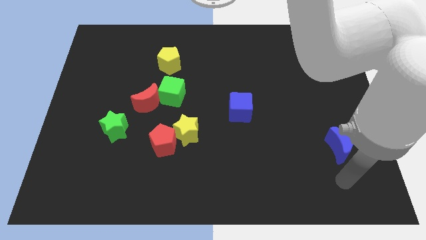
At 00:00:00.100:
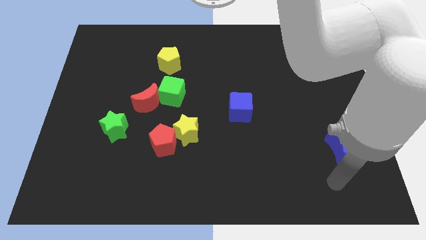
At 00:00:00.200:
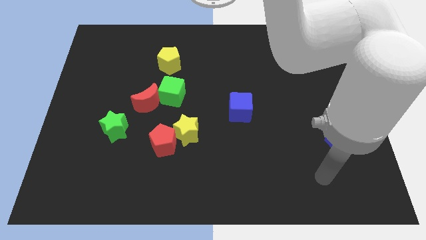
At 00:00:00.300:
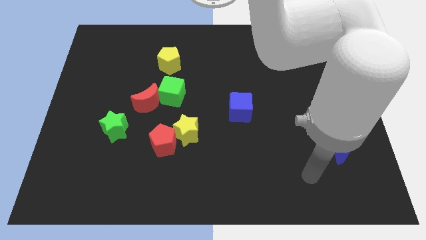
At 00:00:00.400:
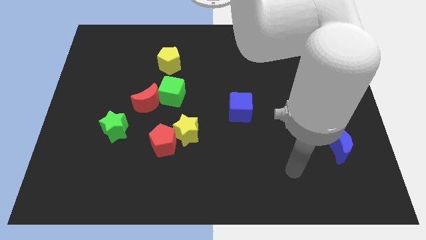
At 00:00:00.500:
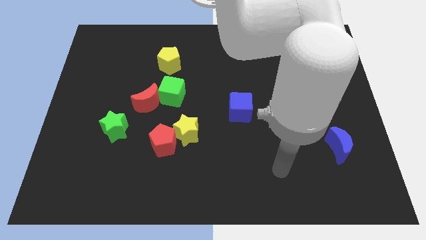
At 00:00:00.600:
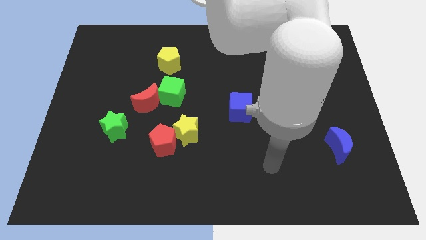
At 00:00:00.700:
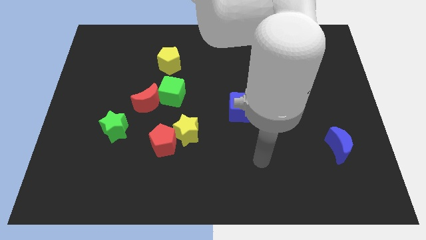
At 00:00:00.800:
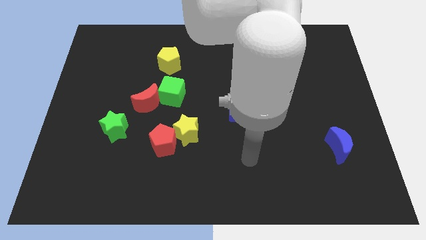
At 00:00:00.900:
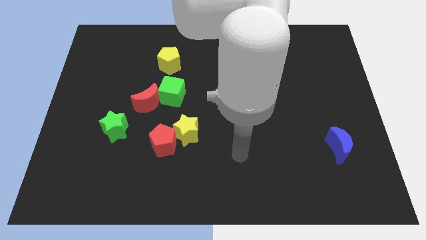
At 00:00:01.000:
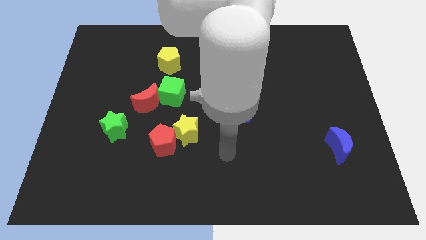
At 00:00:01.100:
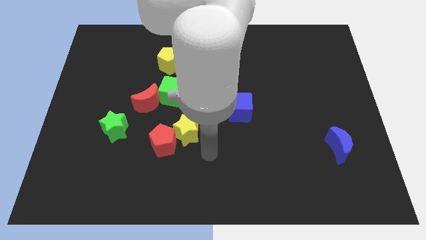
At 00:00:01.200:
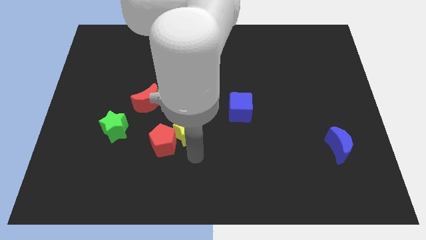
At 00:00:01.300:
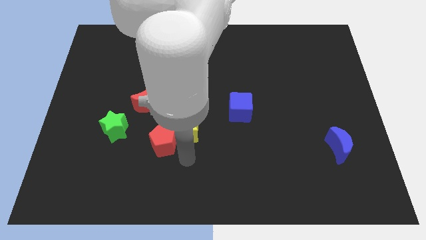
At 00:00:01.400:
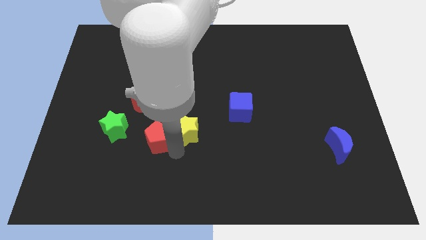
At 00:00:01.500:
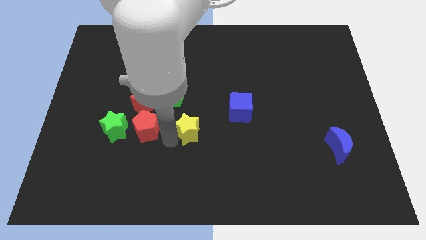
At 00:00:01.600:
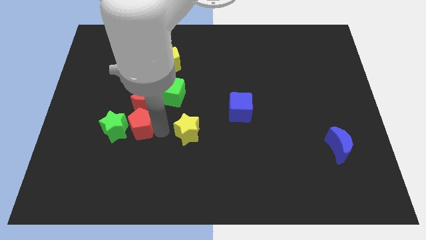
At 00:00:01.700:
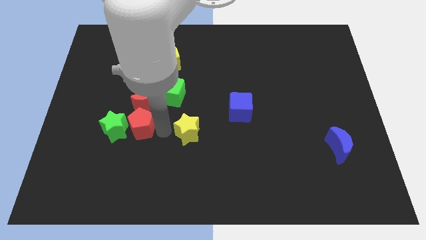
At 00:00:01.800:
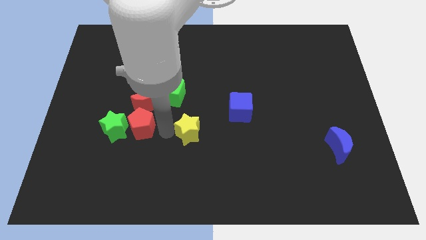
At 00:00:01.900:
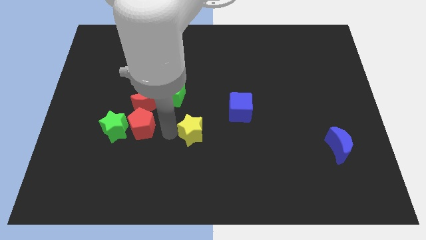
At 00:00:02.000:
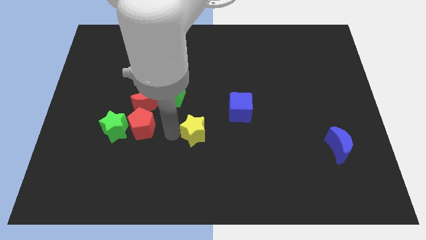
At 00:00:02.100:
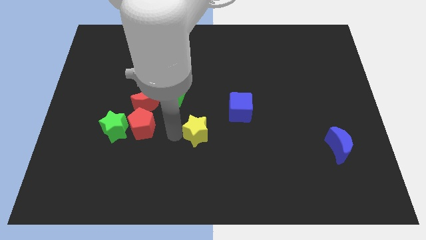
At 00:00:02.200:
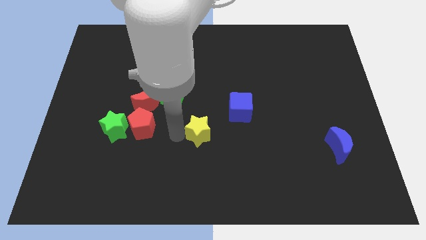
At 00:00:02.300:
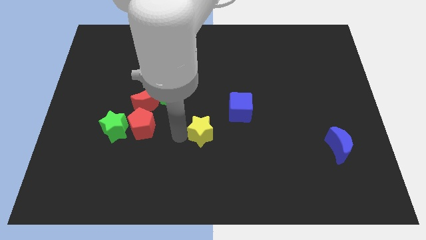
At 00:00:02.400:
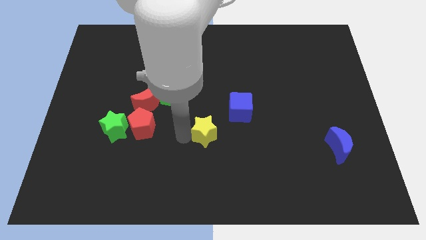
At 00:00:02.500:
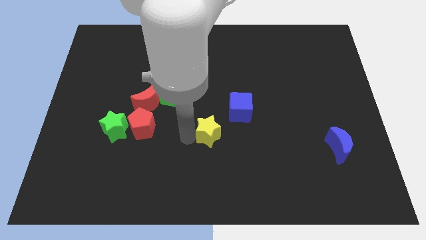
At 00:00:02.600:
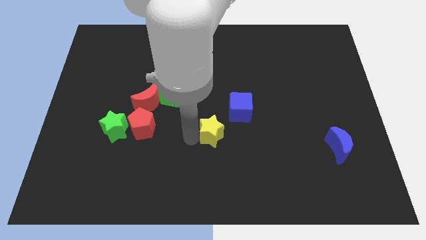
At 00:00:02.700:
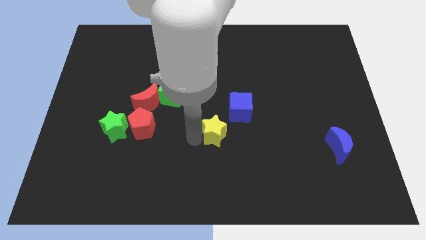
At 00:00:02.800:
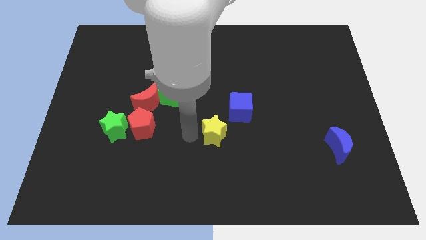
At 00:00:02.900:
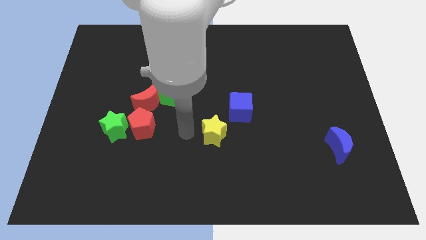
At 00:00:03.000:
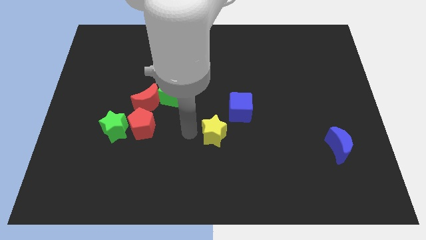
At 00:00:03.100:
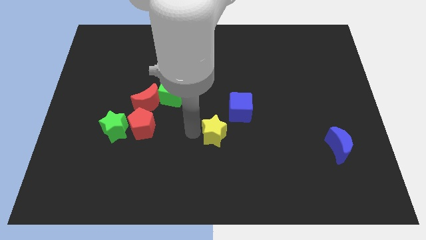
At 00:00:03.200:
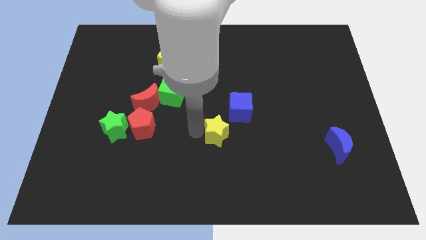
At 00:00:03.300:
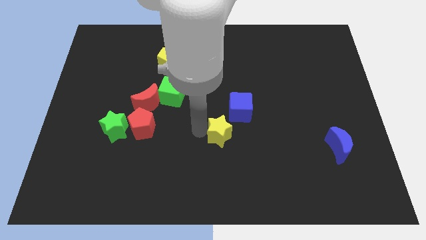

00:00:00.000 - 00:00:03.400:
slightly move the yellow star to the right

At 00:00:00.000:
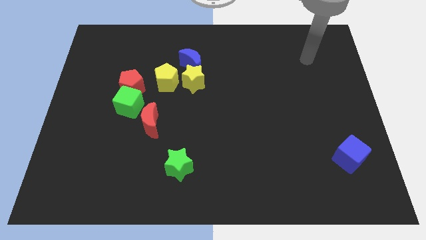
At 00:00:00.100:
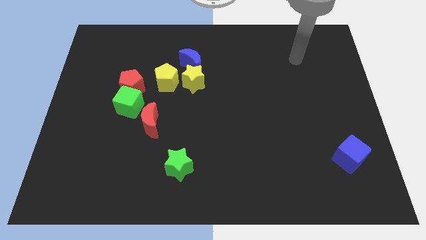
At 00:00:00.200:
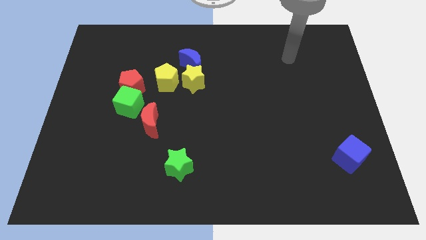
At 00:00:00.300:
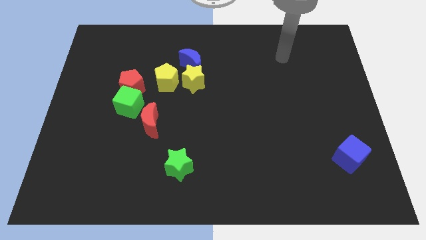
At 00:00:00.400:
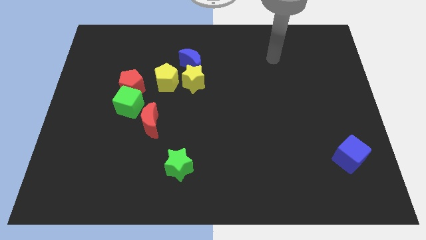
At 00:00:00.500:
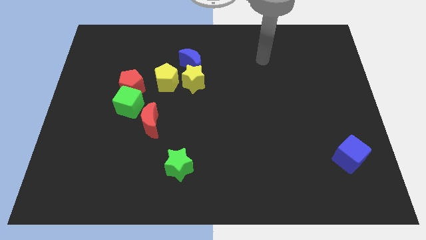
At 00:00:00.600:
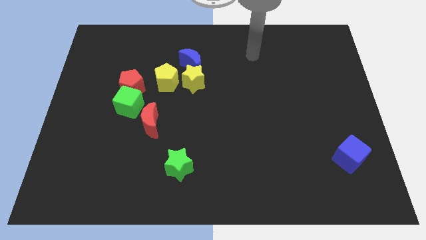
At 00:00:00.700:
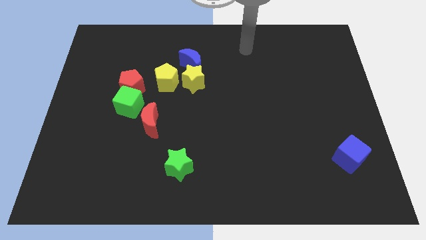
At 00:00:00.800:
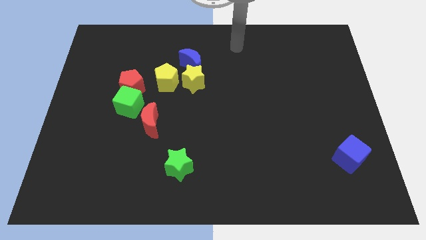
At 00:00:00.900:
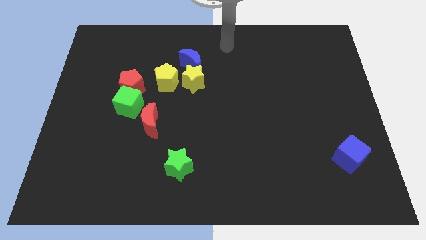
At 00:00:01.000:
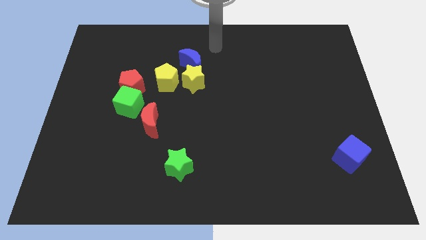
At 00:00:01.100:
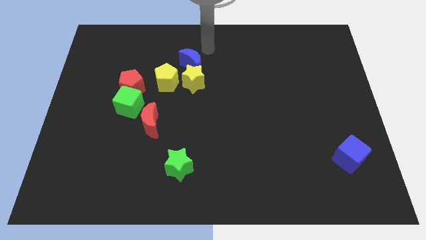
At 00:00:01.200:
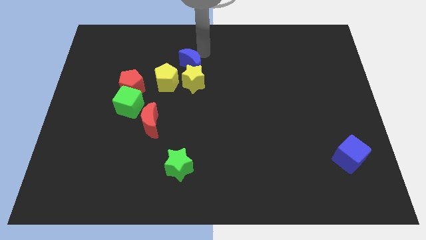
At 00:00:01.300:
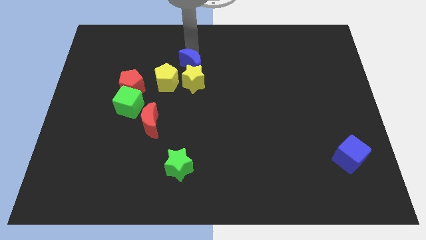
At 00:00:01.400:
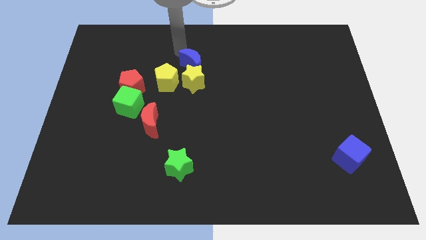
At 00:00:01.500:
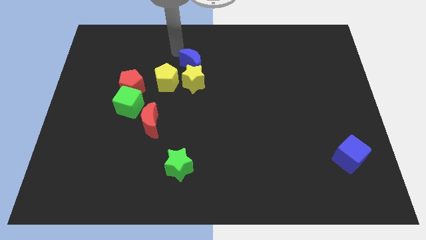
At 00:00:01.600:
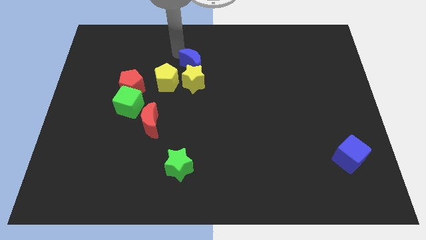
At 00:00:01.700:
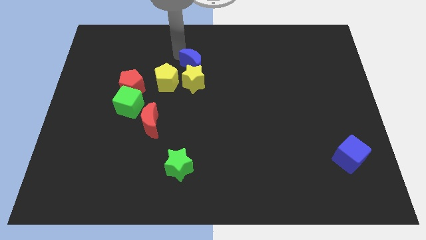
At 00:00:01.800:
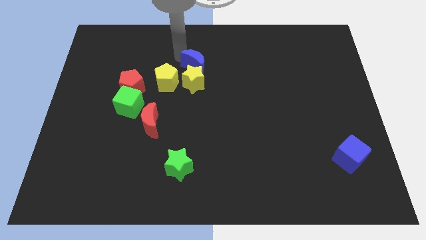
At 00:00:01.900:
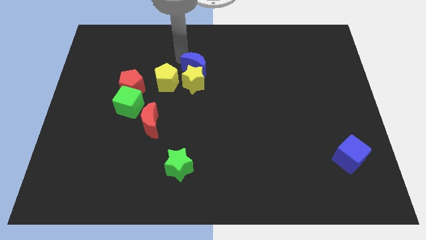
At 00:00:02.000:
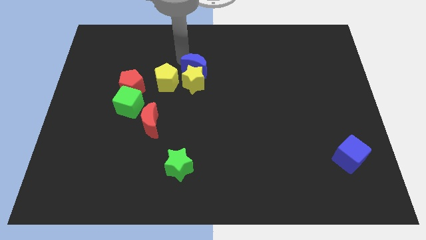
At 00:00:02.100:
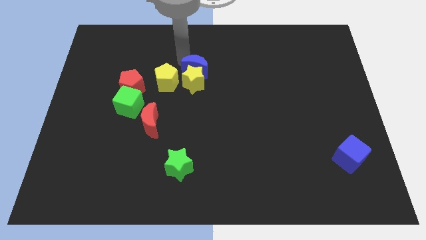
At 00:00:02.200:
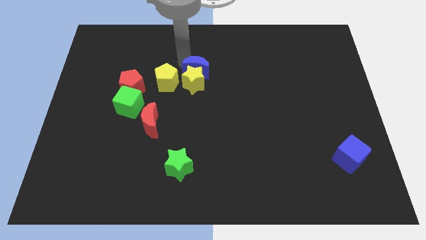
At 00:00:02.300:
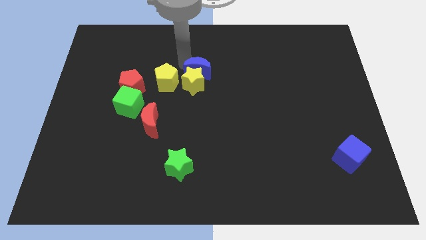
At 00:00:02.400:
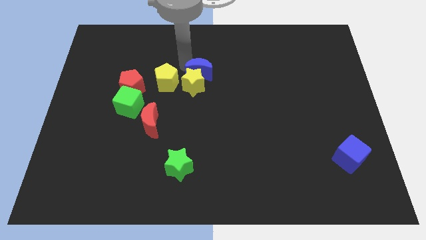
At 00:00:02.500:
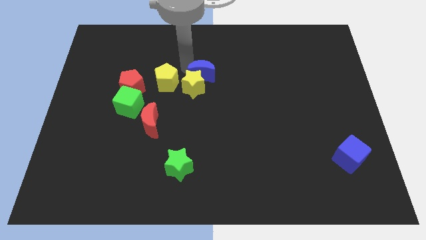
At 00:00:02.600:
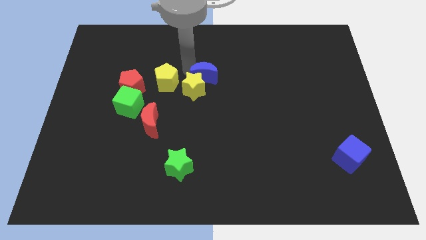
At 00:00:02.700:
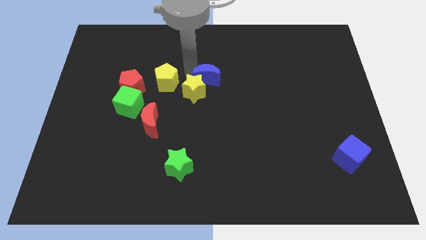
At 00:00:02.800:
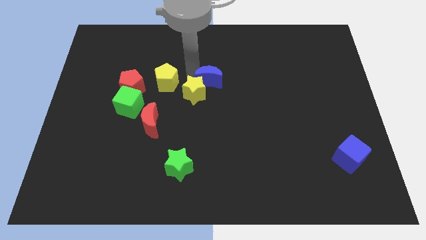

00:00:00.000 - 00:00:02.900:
slightly slide the blue moon diagonally downwards and right

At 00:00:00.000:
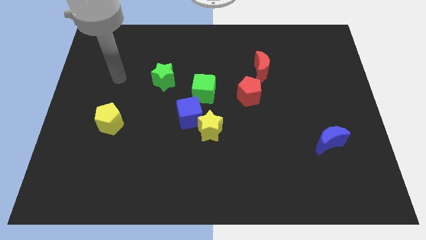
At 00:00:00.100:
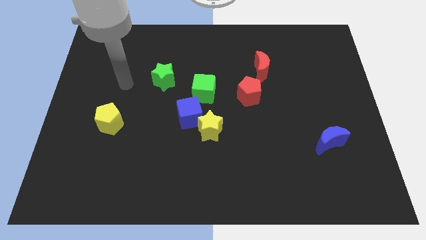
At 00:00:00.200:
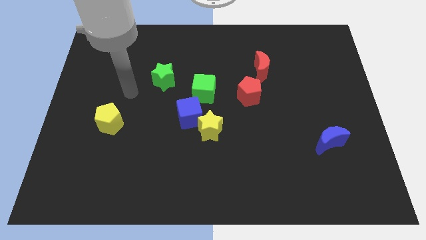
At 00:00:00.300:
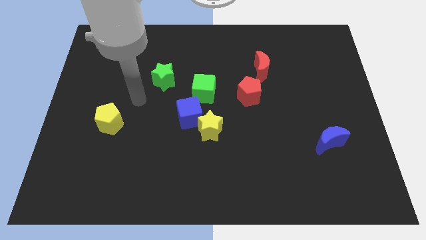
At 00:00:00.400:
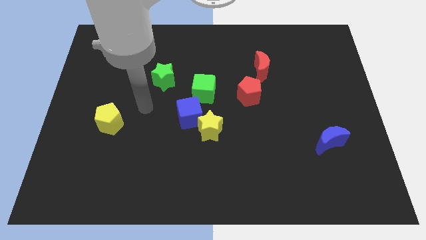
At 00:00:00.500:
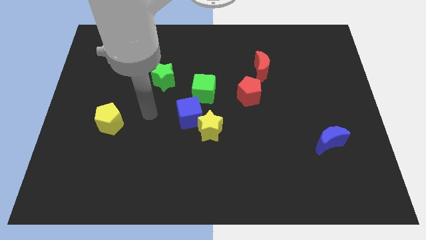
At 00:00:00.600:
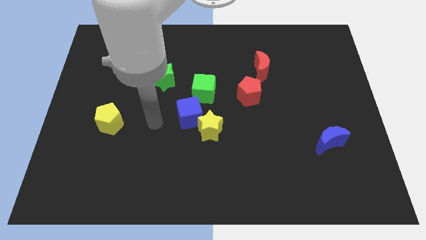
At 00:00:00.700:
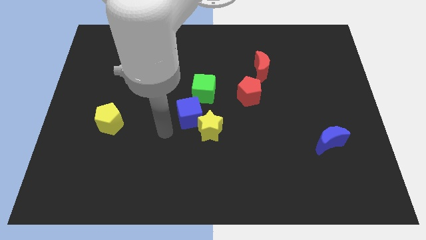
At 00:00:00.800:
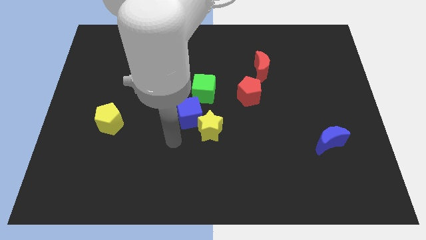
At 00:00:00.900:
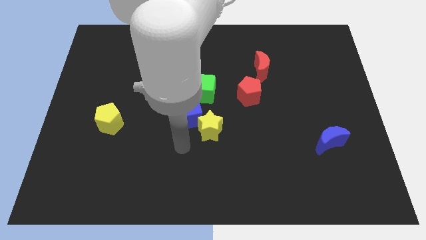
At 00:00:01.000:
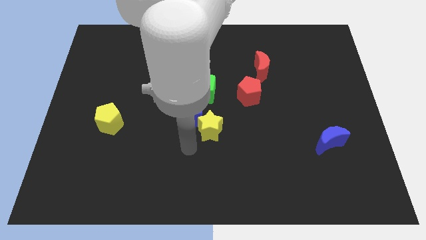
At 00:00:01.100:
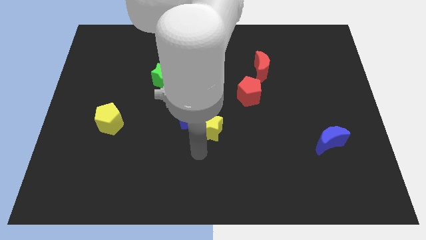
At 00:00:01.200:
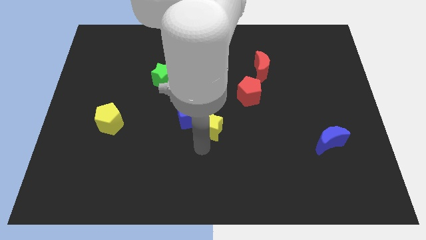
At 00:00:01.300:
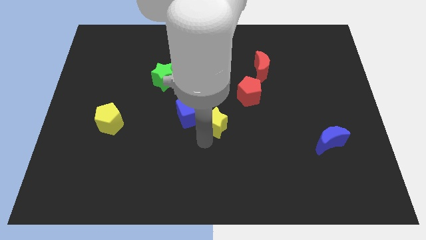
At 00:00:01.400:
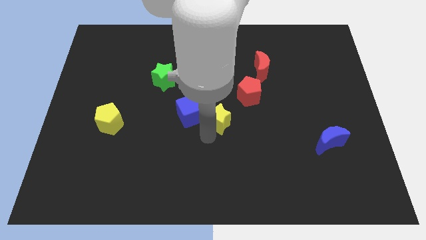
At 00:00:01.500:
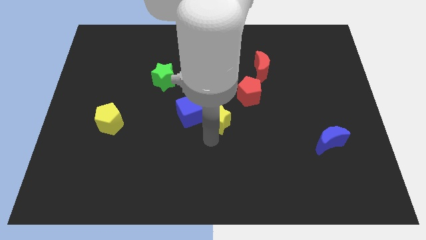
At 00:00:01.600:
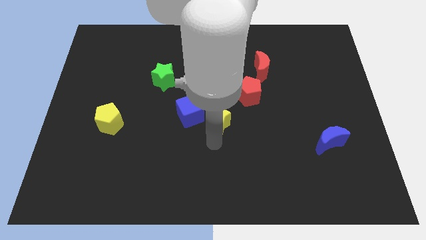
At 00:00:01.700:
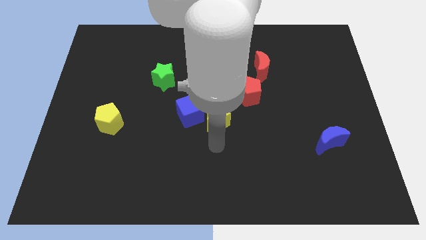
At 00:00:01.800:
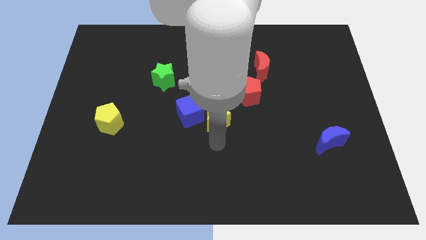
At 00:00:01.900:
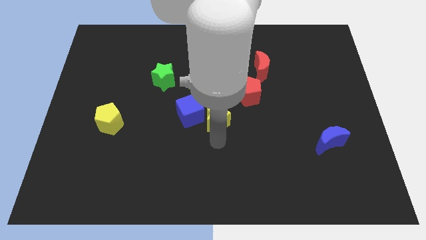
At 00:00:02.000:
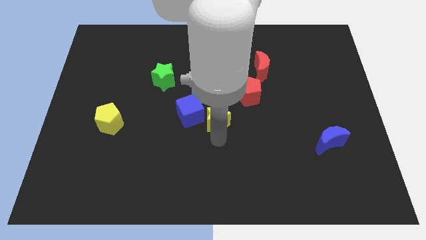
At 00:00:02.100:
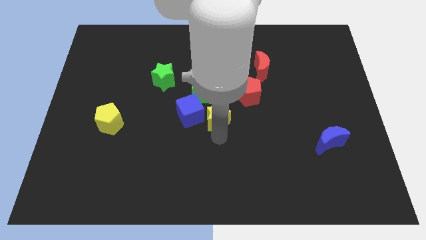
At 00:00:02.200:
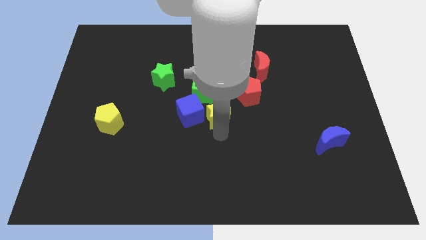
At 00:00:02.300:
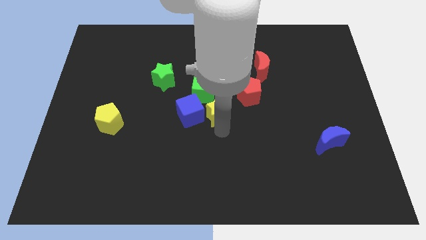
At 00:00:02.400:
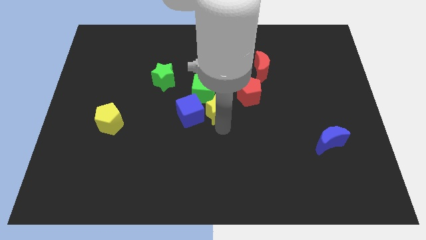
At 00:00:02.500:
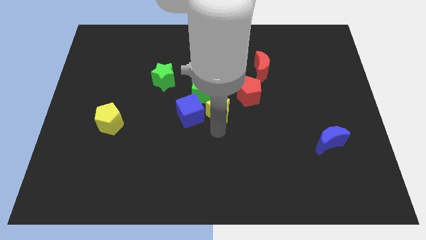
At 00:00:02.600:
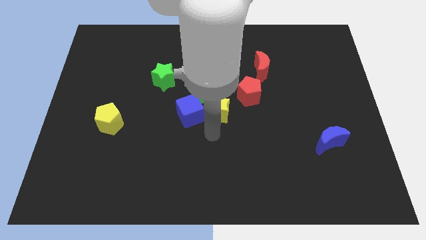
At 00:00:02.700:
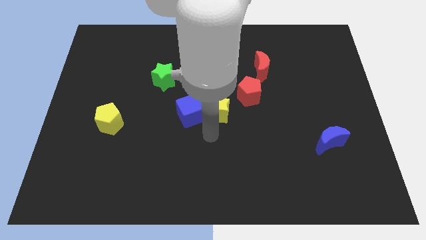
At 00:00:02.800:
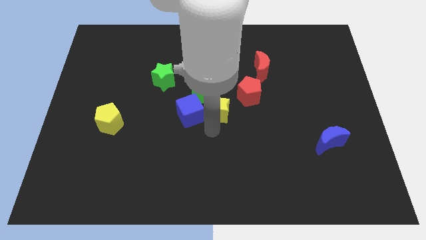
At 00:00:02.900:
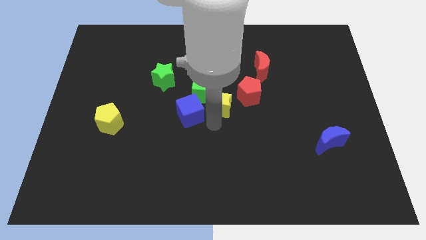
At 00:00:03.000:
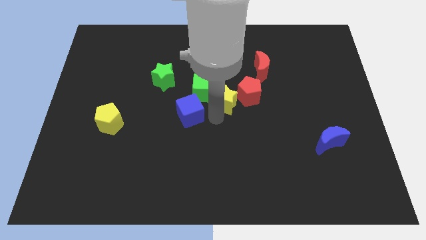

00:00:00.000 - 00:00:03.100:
move the yellow star somewhat upwards
